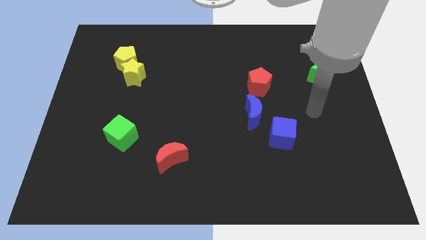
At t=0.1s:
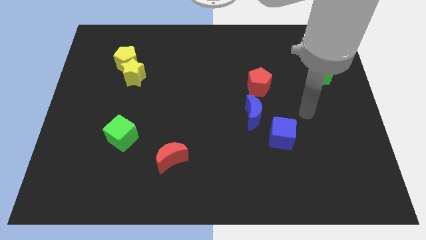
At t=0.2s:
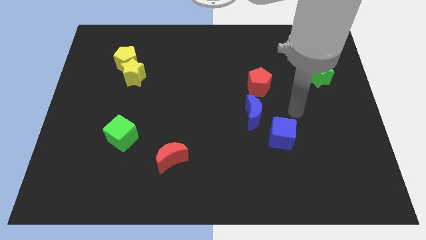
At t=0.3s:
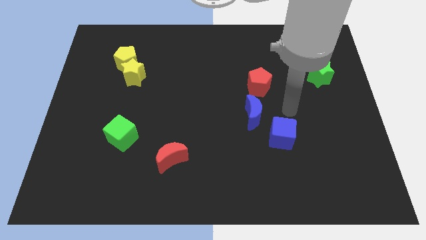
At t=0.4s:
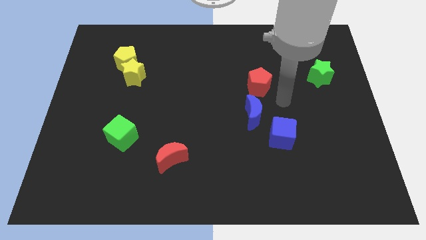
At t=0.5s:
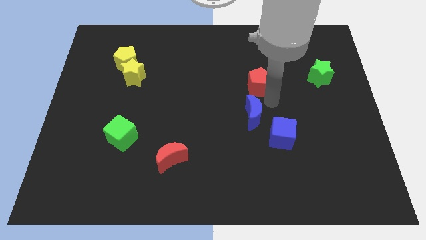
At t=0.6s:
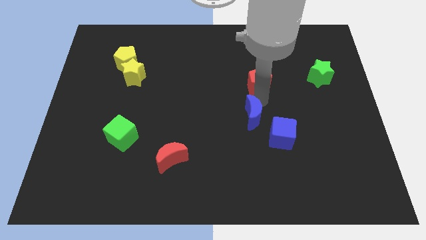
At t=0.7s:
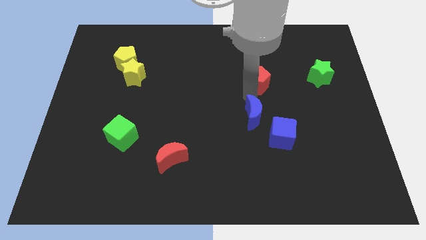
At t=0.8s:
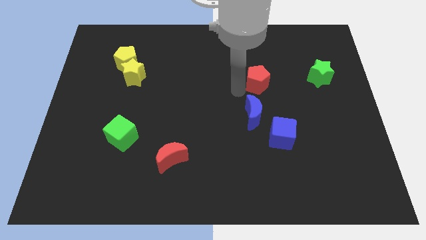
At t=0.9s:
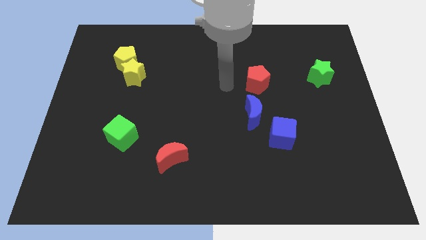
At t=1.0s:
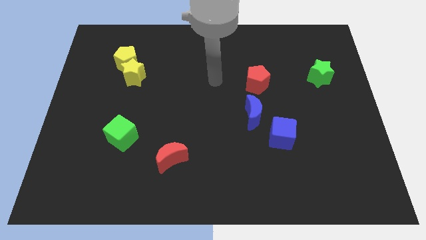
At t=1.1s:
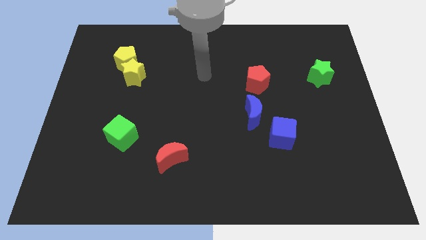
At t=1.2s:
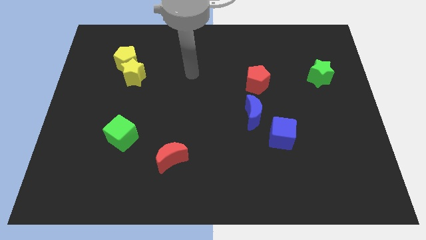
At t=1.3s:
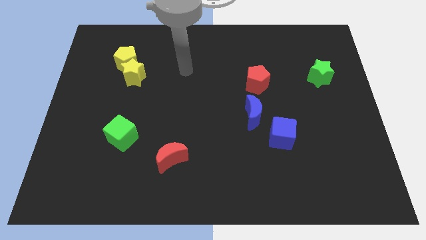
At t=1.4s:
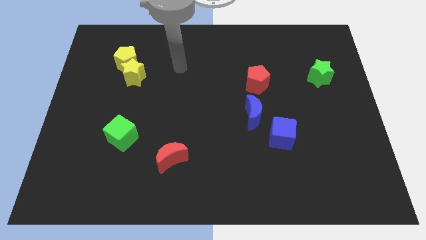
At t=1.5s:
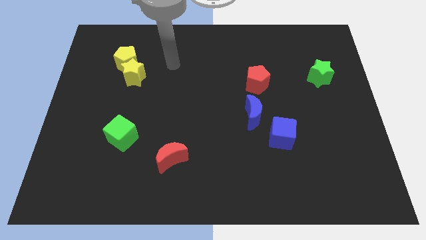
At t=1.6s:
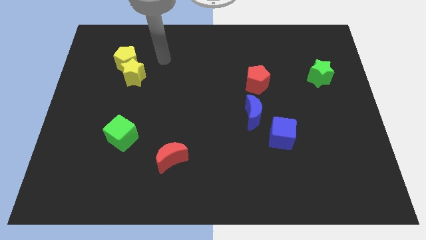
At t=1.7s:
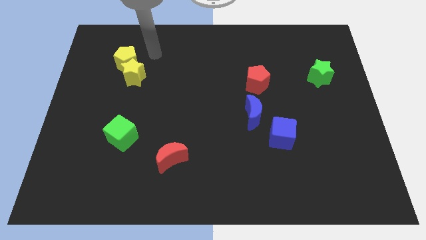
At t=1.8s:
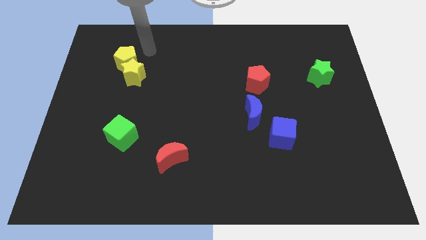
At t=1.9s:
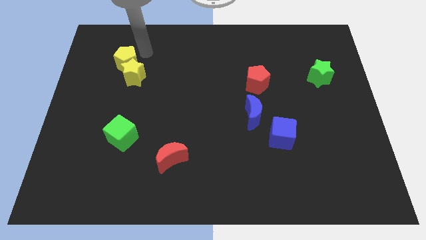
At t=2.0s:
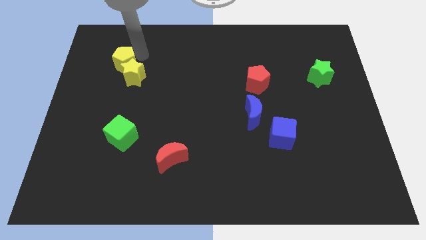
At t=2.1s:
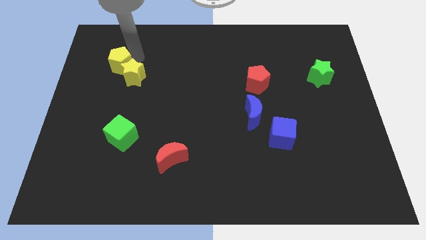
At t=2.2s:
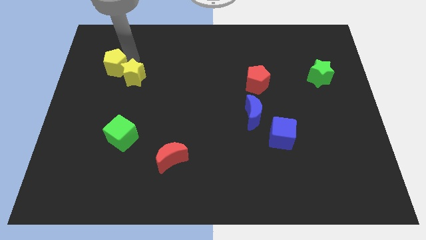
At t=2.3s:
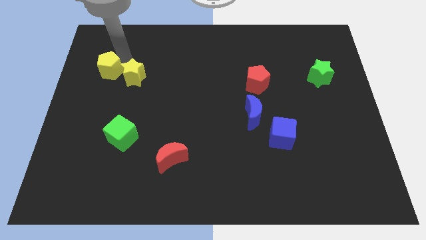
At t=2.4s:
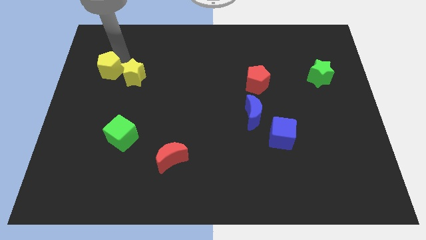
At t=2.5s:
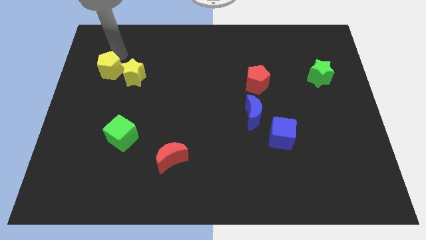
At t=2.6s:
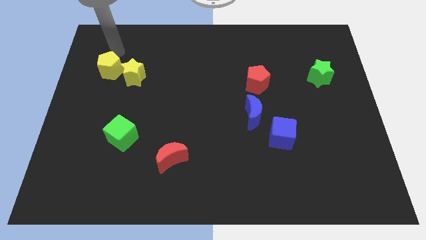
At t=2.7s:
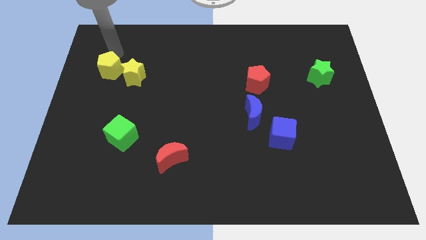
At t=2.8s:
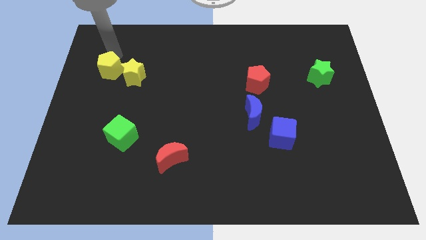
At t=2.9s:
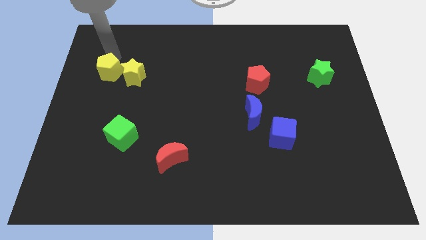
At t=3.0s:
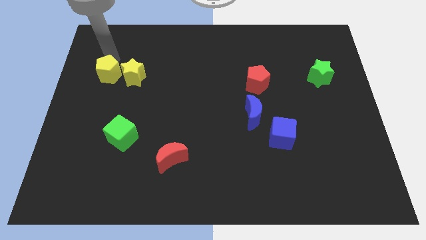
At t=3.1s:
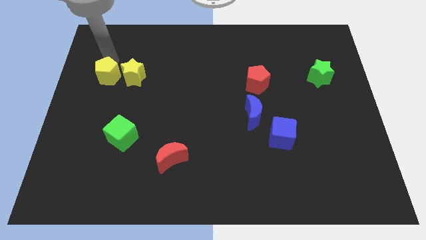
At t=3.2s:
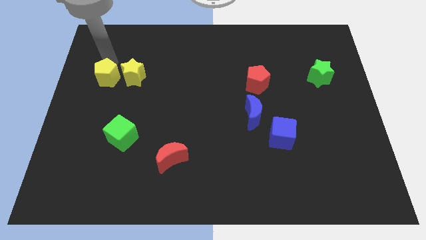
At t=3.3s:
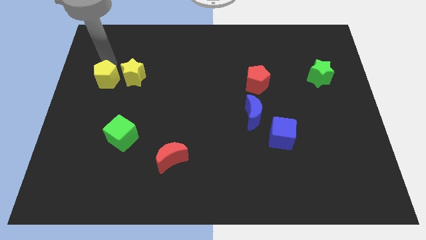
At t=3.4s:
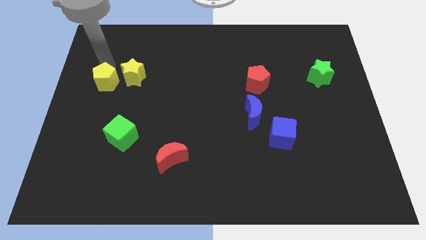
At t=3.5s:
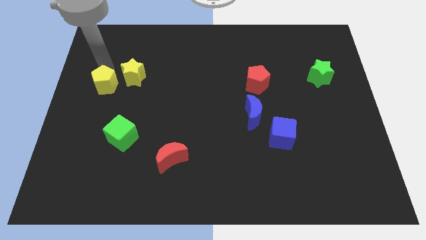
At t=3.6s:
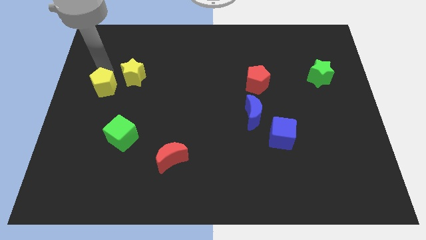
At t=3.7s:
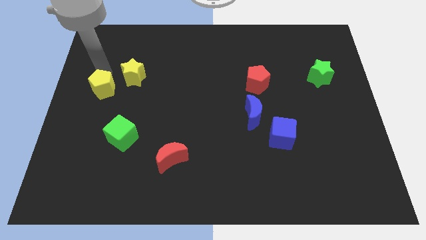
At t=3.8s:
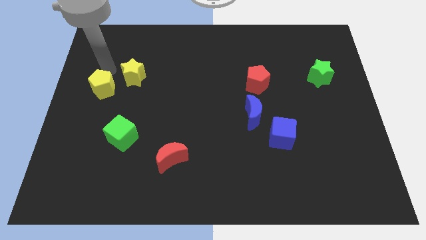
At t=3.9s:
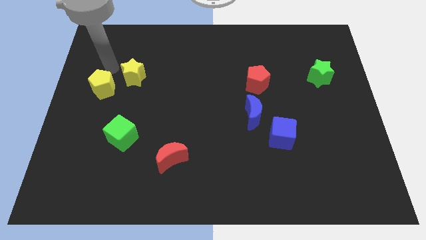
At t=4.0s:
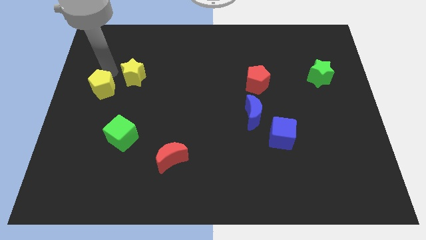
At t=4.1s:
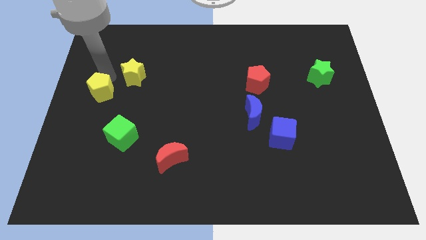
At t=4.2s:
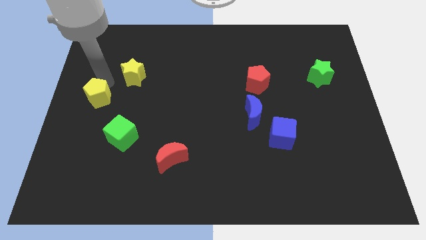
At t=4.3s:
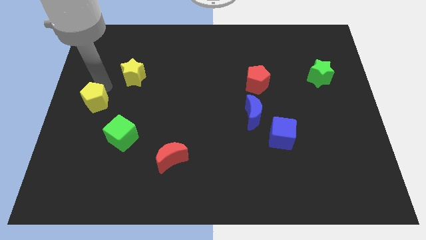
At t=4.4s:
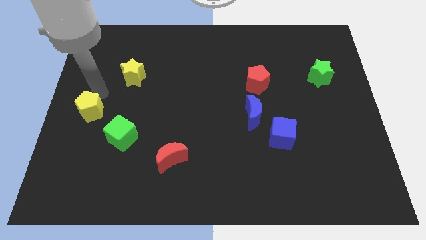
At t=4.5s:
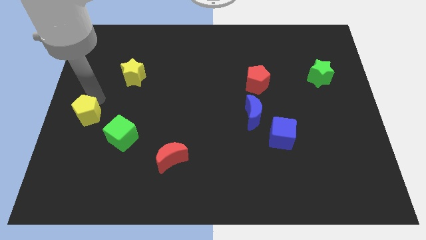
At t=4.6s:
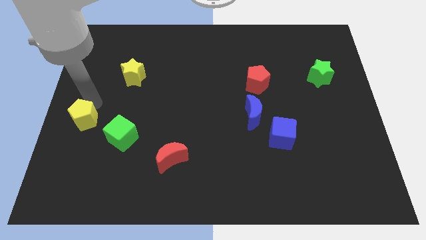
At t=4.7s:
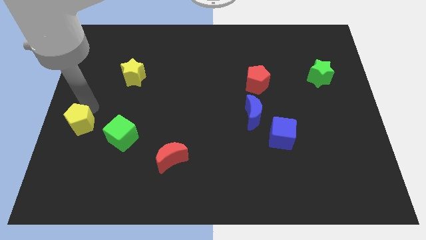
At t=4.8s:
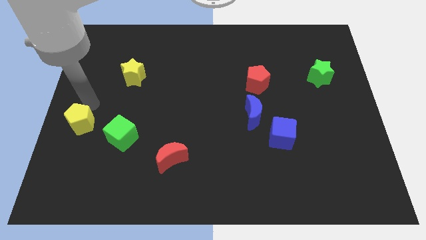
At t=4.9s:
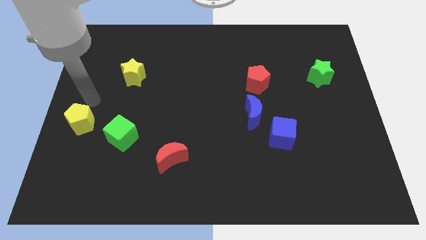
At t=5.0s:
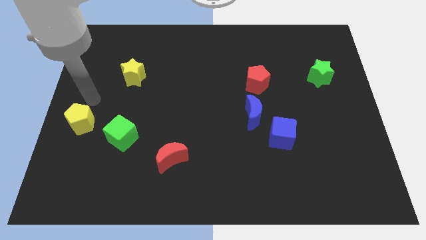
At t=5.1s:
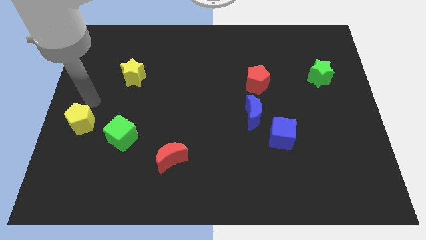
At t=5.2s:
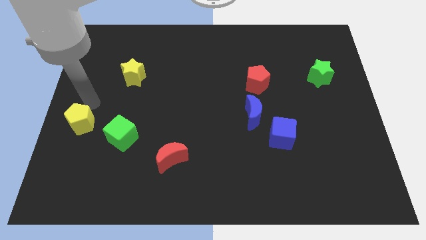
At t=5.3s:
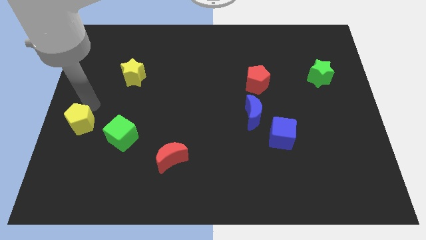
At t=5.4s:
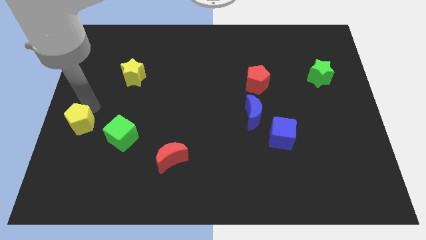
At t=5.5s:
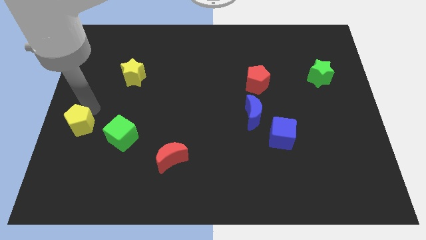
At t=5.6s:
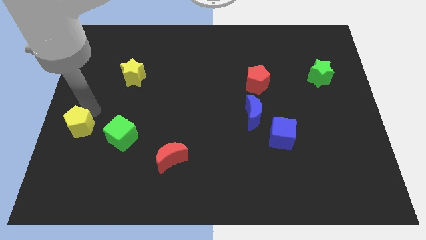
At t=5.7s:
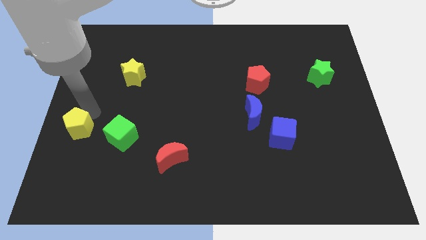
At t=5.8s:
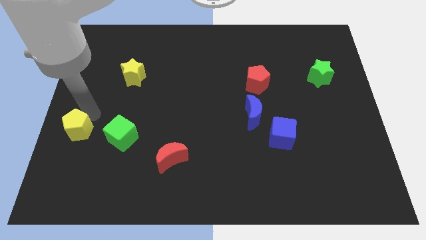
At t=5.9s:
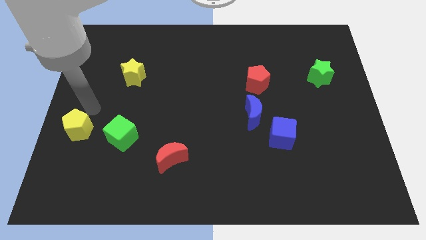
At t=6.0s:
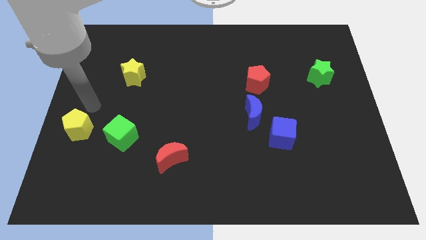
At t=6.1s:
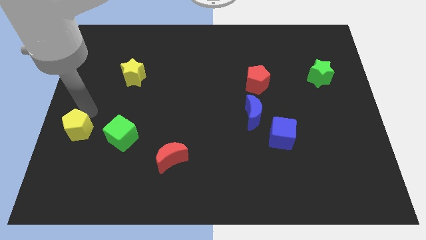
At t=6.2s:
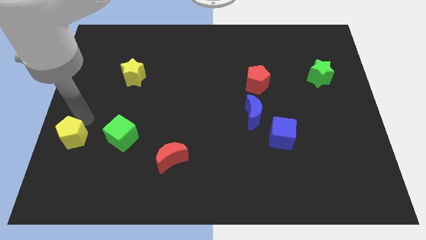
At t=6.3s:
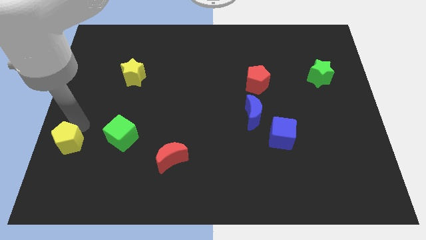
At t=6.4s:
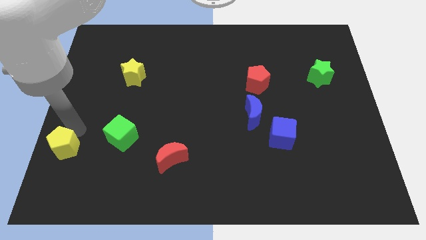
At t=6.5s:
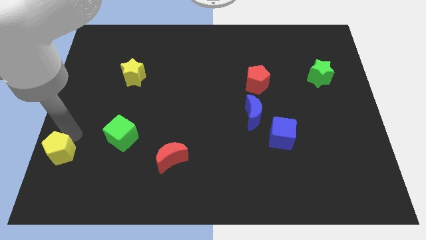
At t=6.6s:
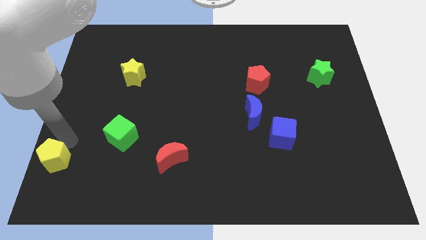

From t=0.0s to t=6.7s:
move the yellow pentagon to the bottom left of the board
